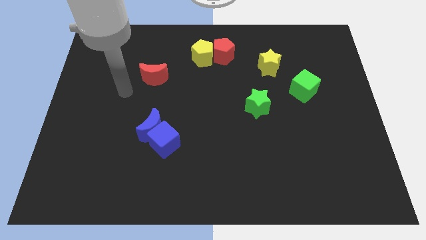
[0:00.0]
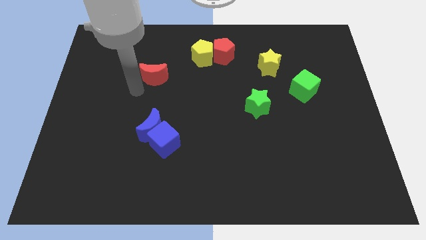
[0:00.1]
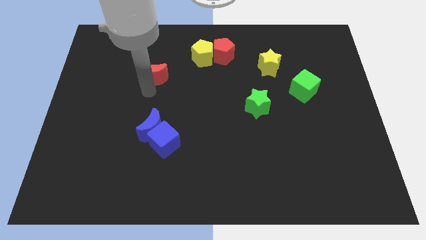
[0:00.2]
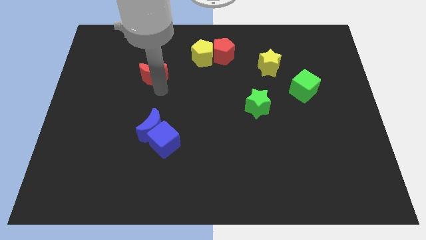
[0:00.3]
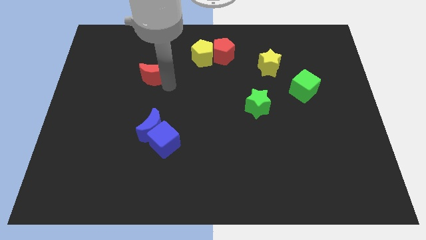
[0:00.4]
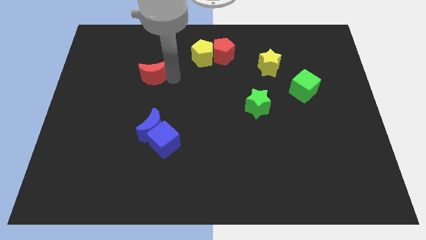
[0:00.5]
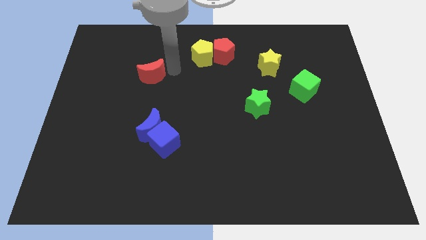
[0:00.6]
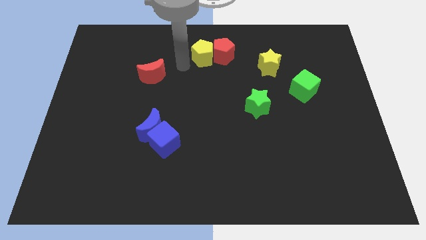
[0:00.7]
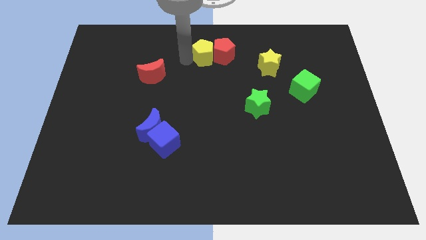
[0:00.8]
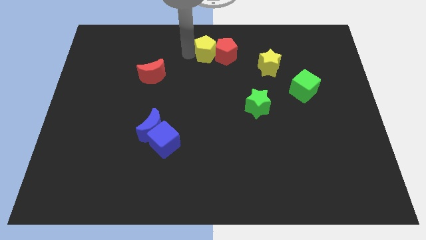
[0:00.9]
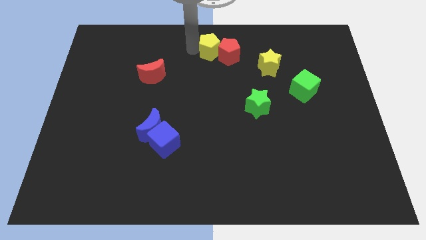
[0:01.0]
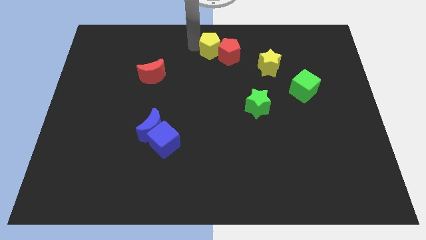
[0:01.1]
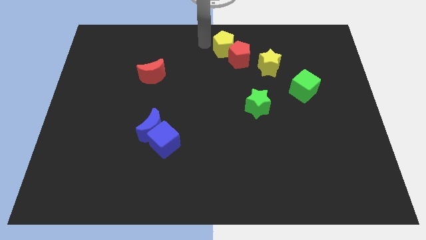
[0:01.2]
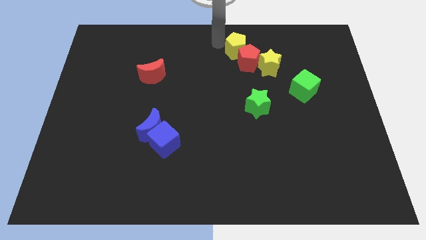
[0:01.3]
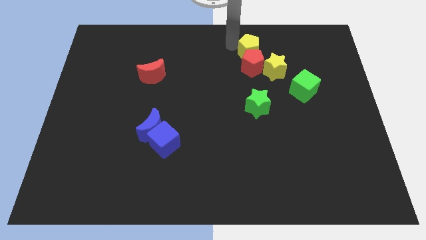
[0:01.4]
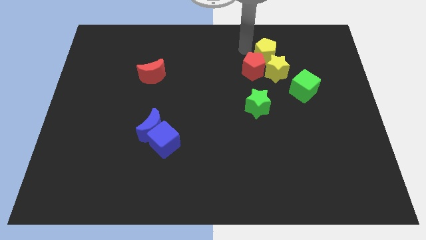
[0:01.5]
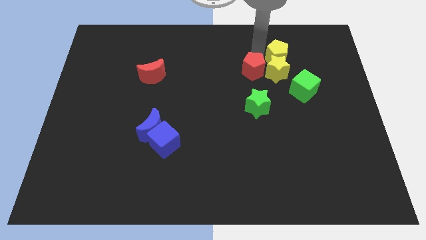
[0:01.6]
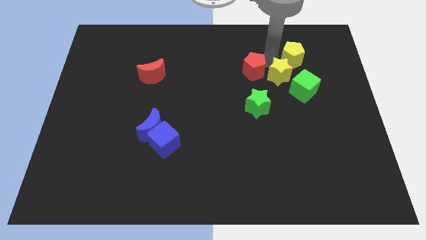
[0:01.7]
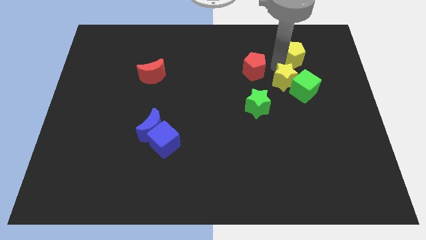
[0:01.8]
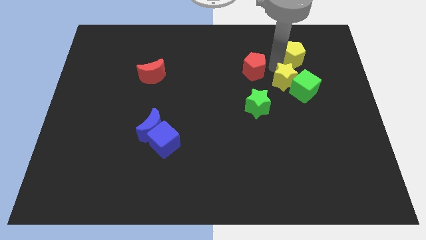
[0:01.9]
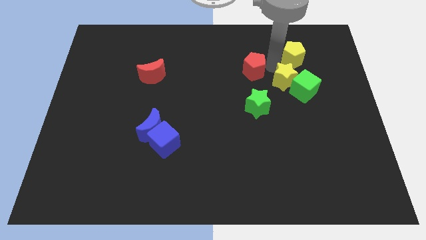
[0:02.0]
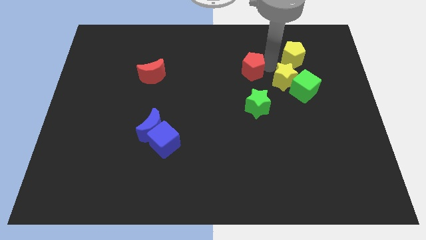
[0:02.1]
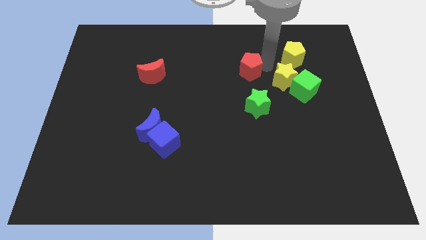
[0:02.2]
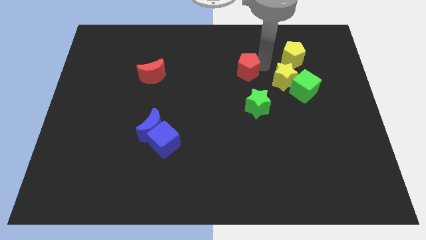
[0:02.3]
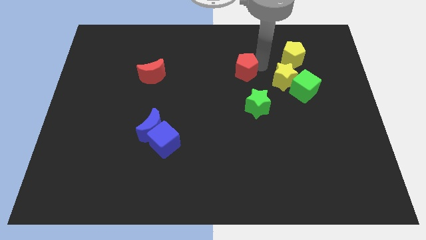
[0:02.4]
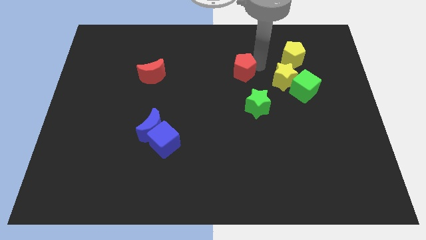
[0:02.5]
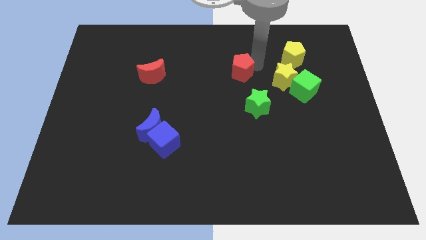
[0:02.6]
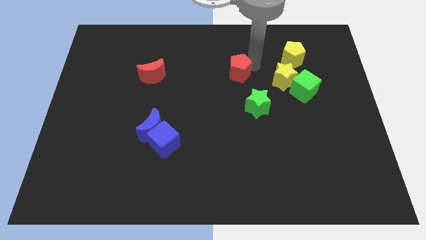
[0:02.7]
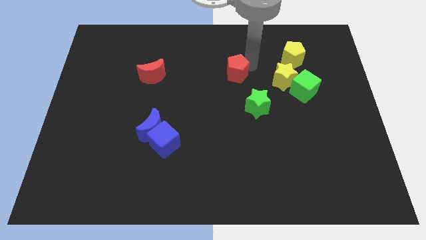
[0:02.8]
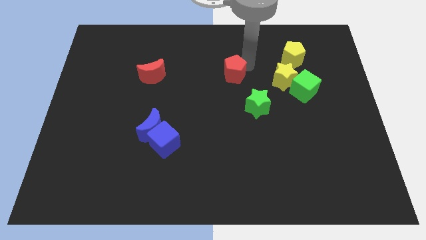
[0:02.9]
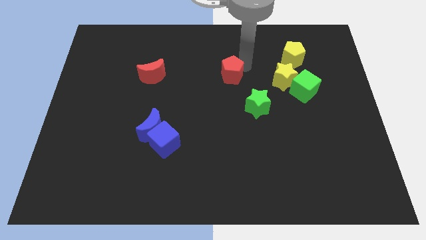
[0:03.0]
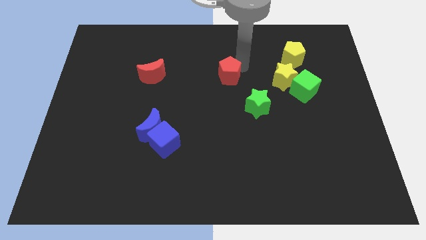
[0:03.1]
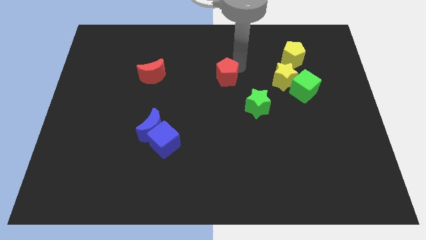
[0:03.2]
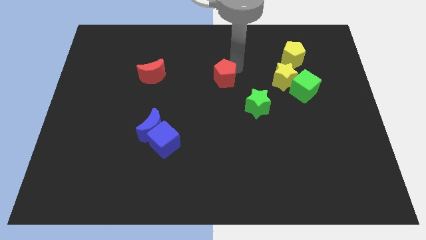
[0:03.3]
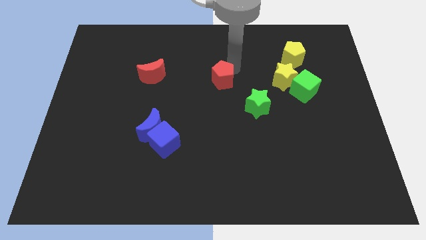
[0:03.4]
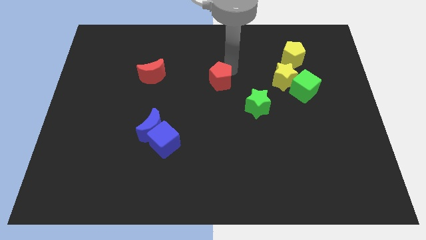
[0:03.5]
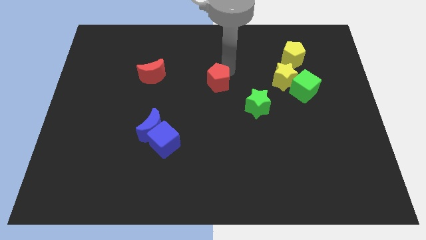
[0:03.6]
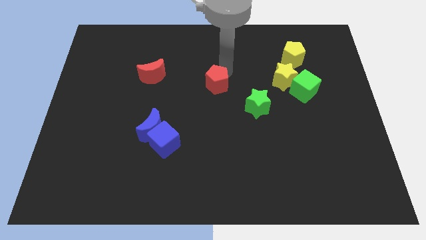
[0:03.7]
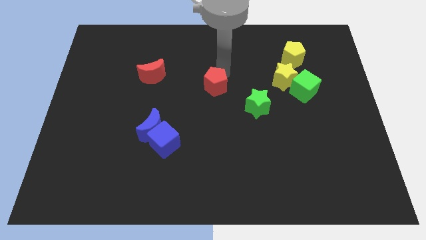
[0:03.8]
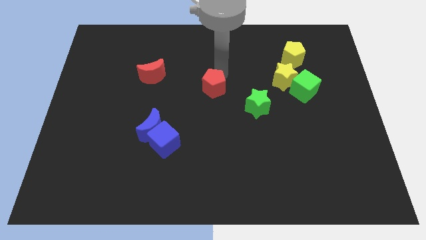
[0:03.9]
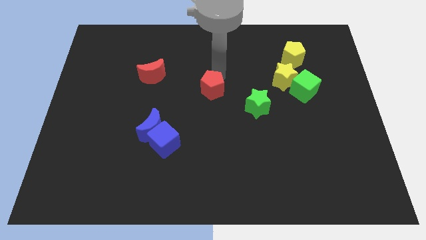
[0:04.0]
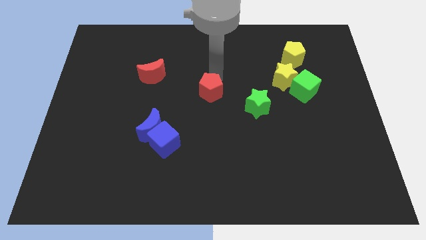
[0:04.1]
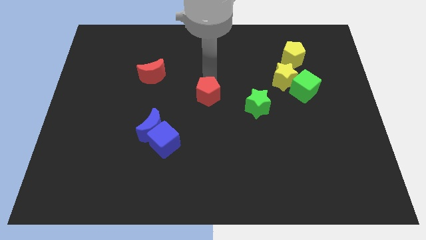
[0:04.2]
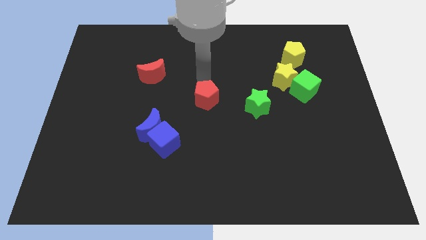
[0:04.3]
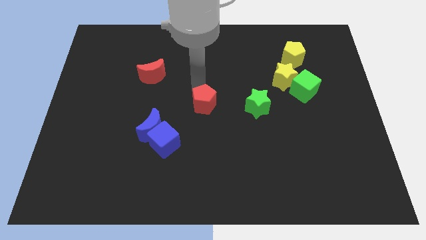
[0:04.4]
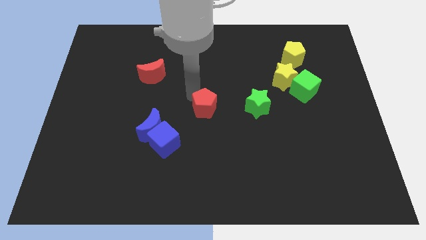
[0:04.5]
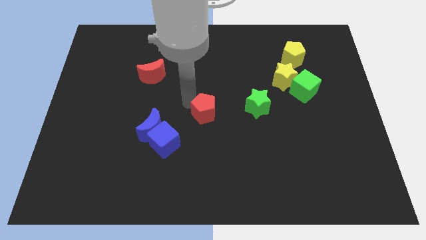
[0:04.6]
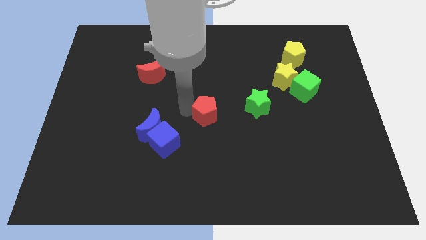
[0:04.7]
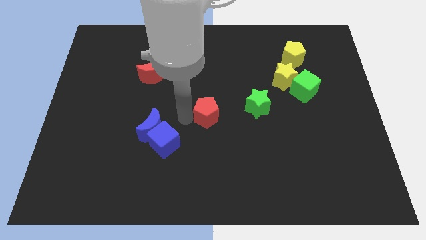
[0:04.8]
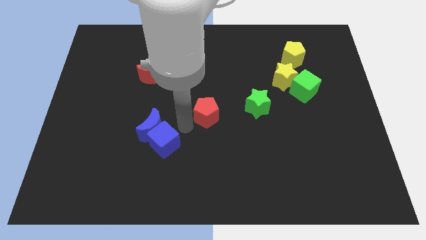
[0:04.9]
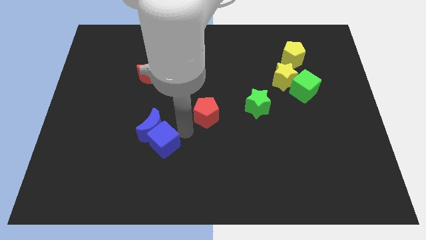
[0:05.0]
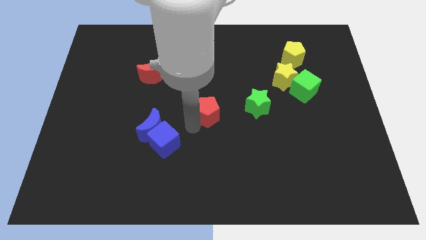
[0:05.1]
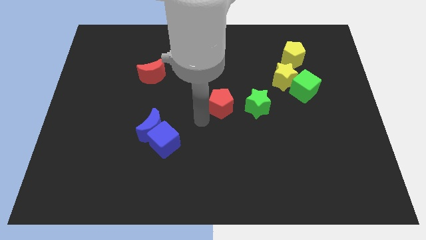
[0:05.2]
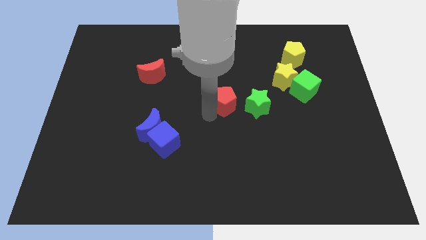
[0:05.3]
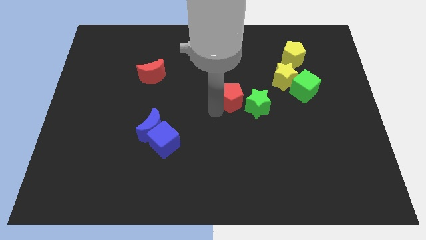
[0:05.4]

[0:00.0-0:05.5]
put the red pentagon next to the green star

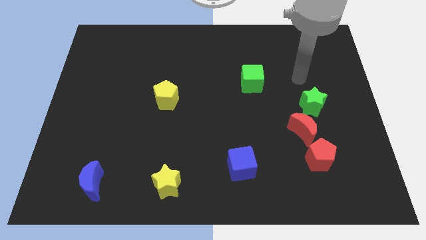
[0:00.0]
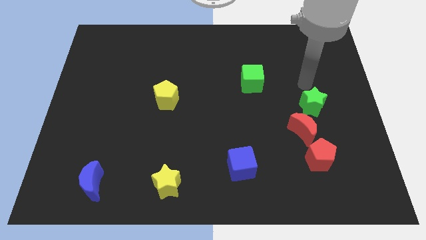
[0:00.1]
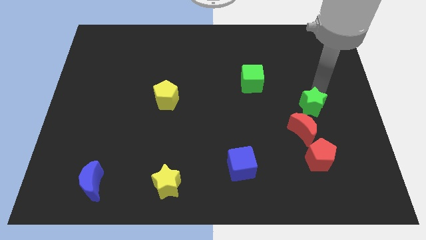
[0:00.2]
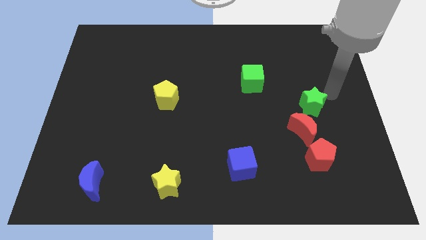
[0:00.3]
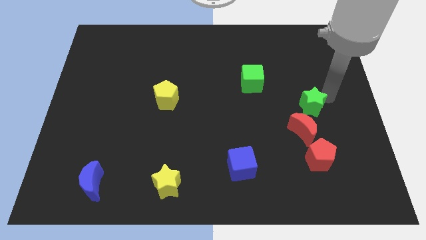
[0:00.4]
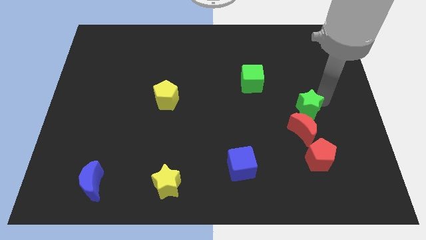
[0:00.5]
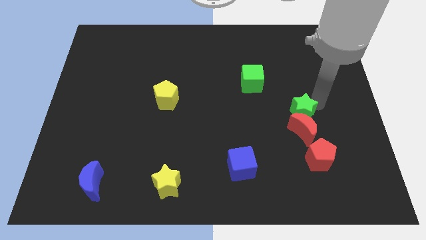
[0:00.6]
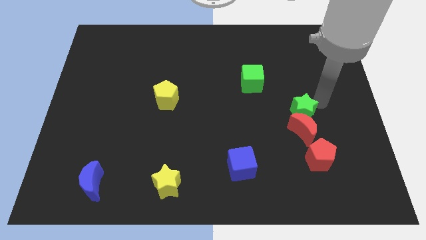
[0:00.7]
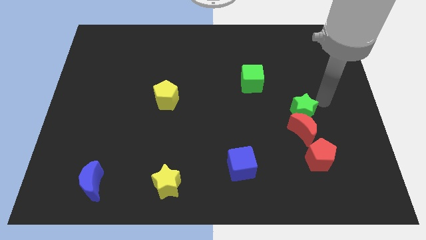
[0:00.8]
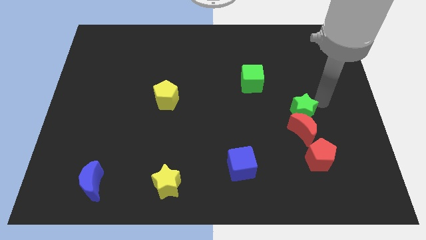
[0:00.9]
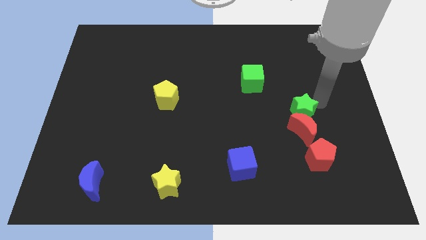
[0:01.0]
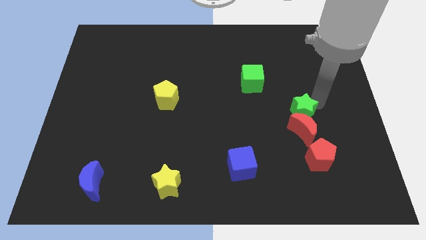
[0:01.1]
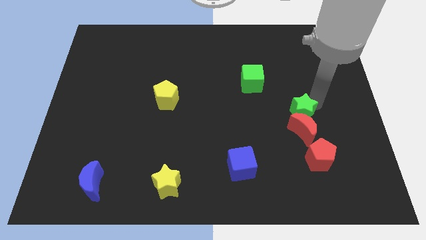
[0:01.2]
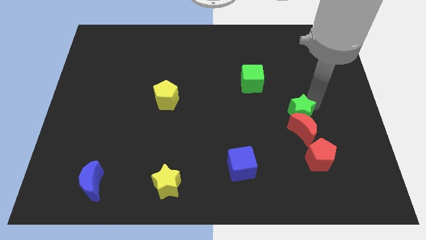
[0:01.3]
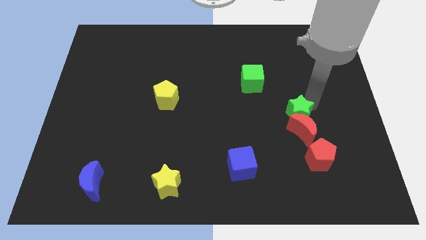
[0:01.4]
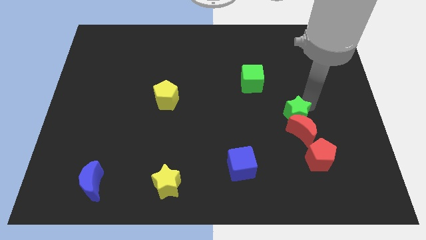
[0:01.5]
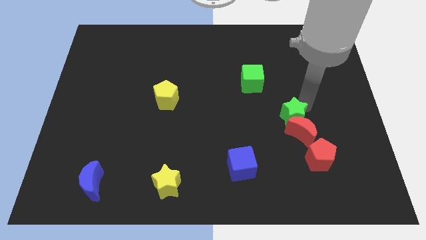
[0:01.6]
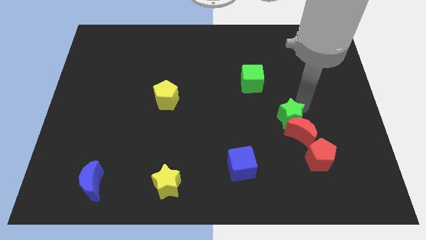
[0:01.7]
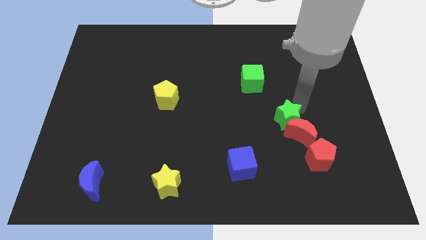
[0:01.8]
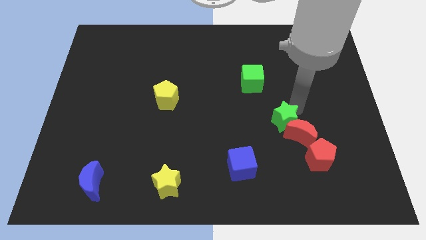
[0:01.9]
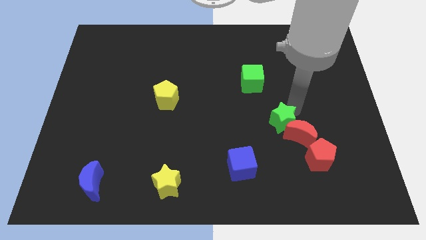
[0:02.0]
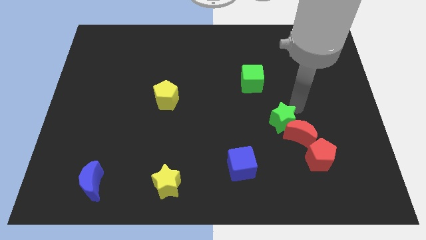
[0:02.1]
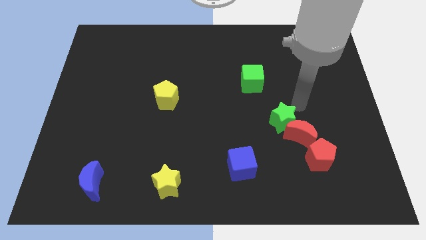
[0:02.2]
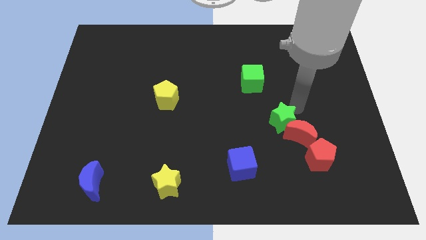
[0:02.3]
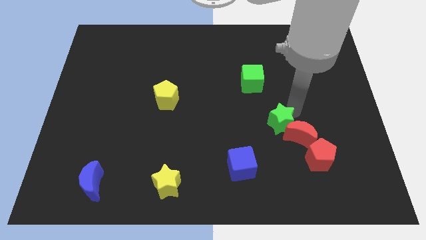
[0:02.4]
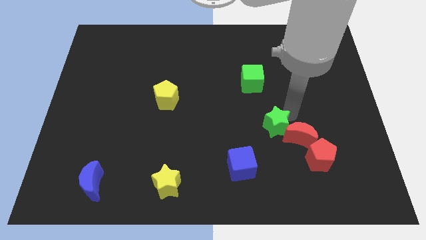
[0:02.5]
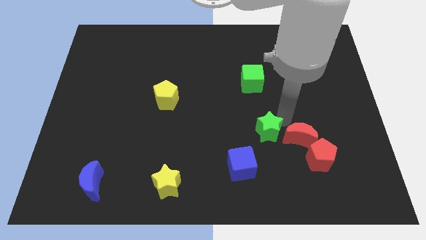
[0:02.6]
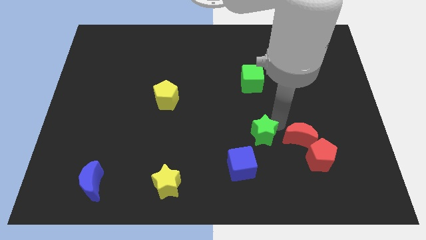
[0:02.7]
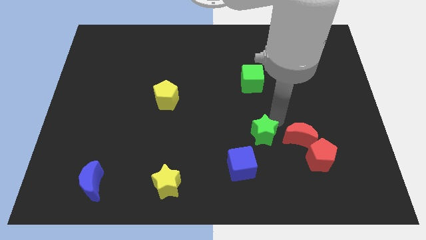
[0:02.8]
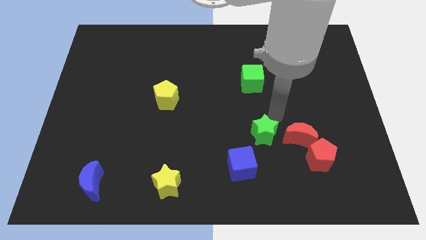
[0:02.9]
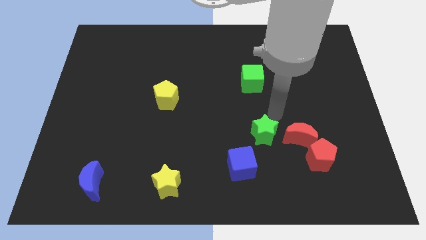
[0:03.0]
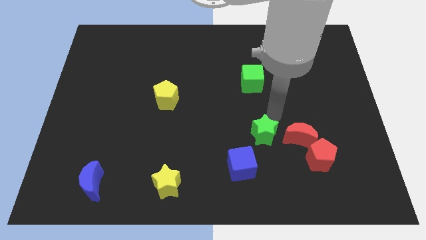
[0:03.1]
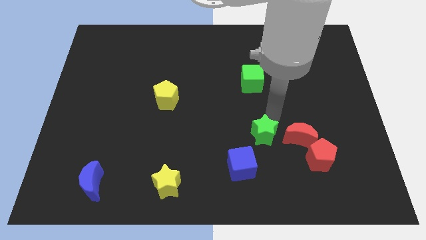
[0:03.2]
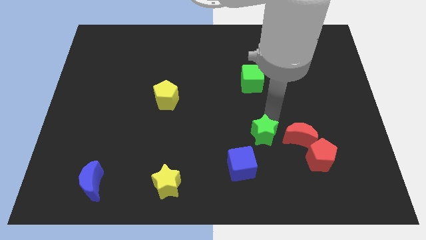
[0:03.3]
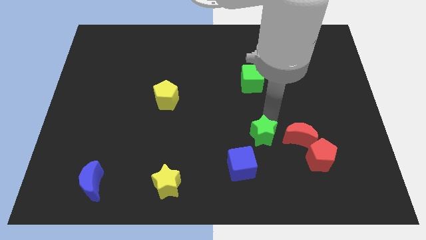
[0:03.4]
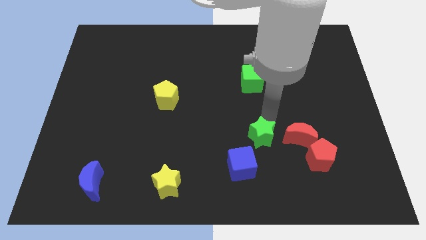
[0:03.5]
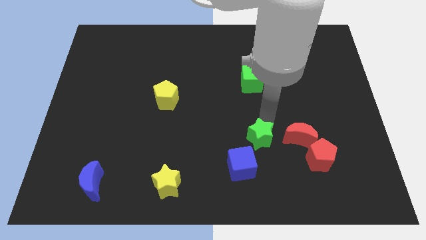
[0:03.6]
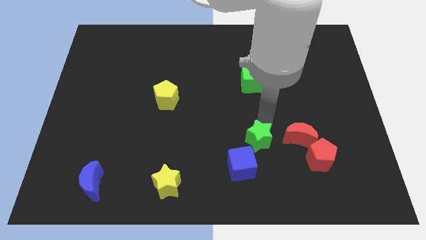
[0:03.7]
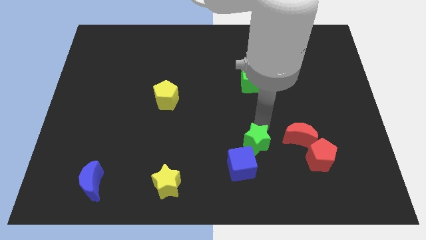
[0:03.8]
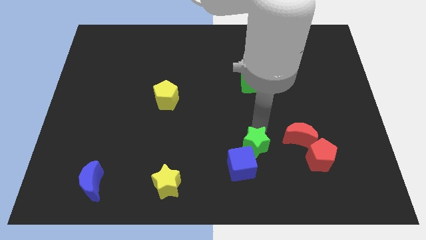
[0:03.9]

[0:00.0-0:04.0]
put the green star next to the blue cube
